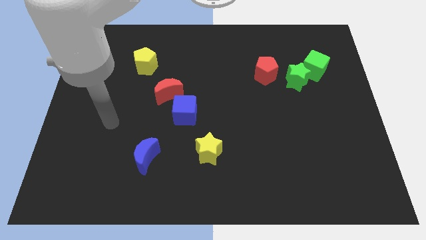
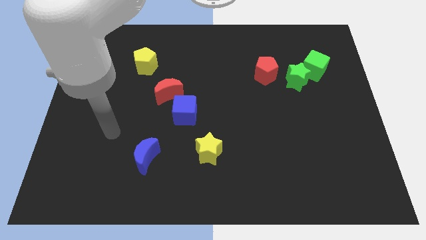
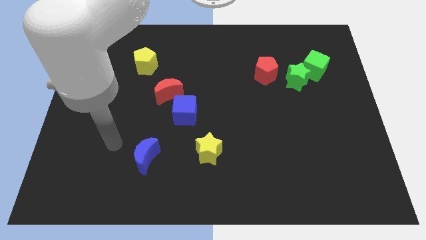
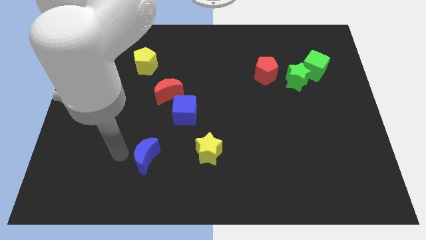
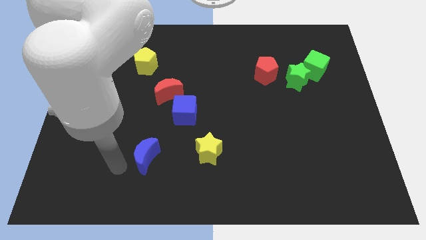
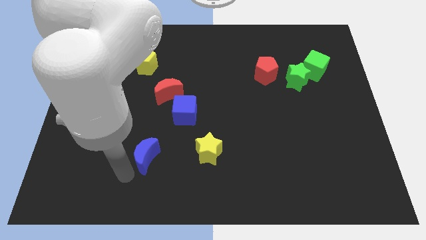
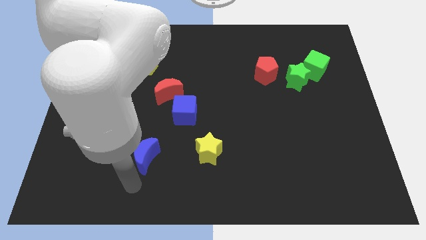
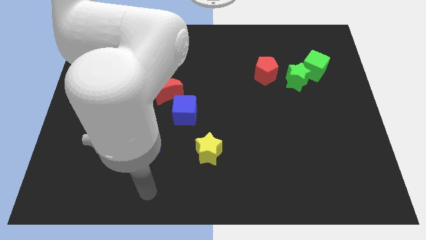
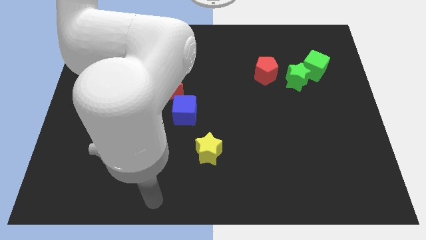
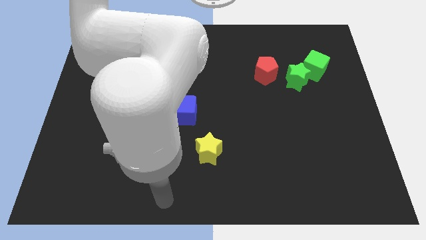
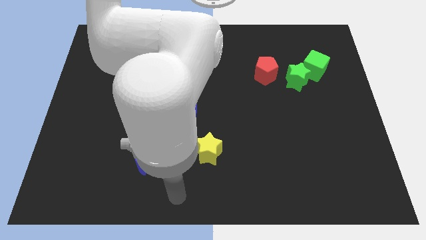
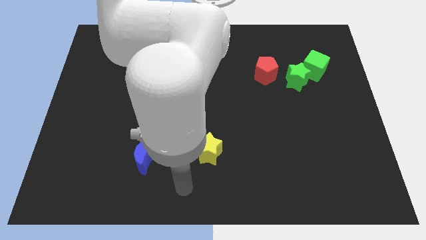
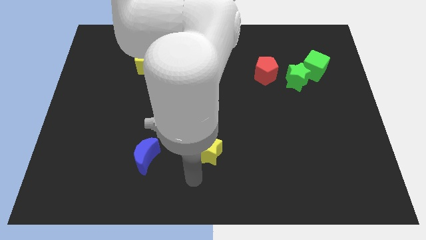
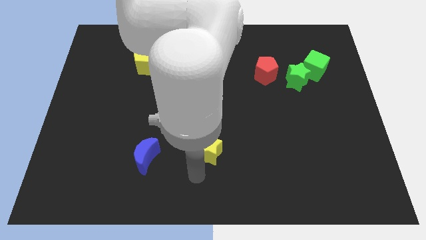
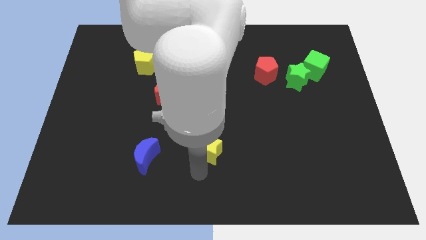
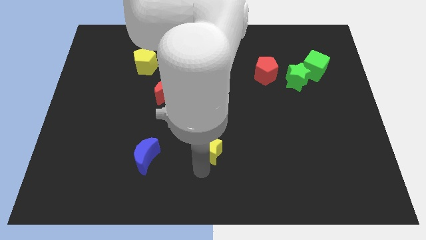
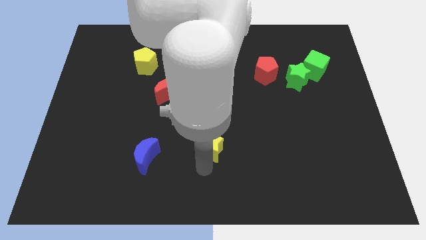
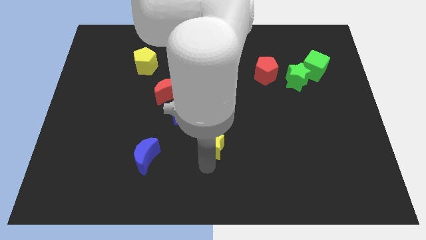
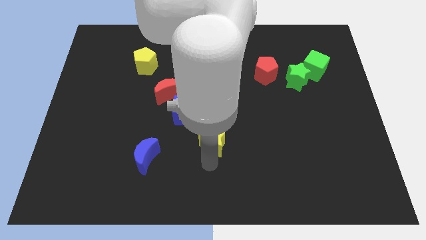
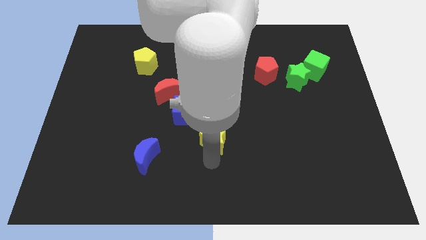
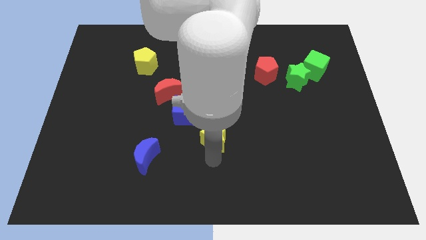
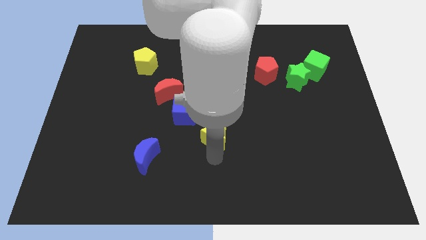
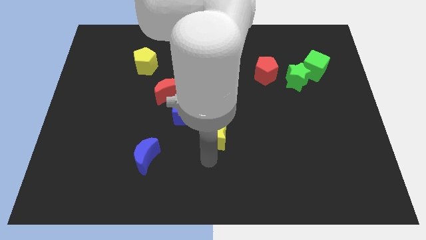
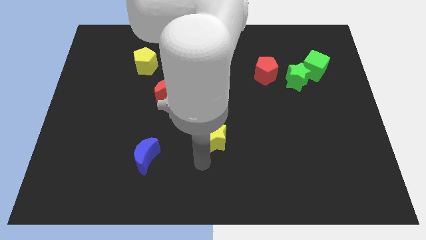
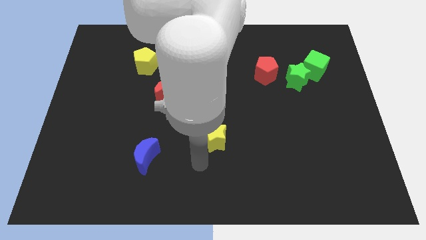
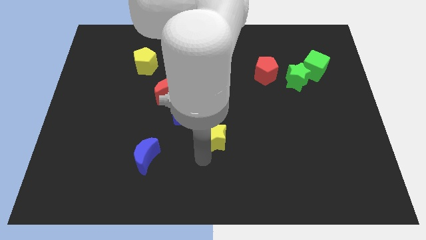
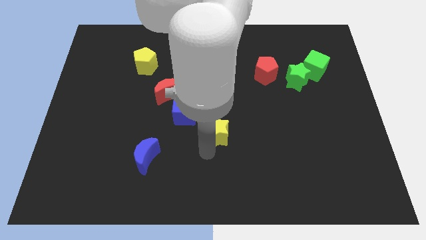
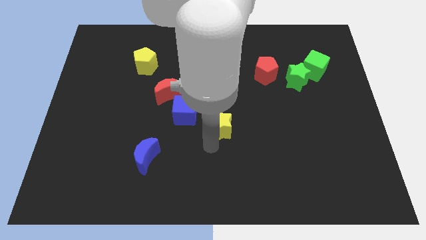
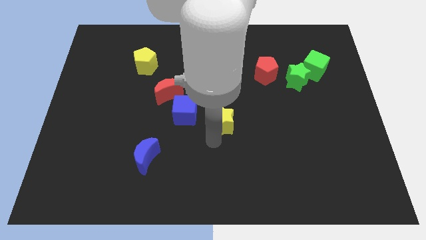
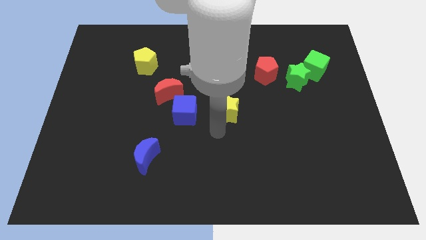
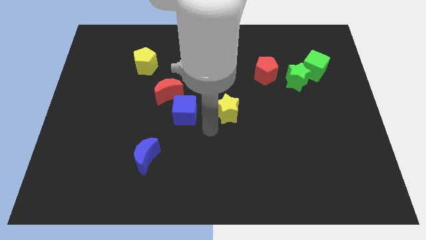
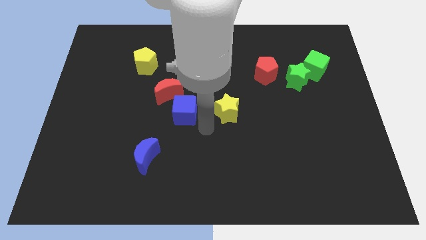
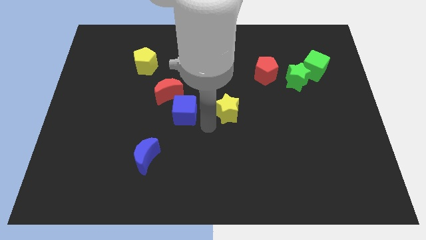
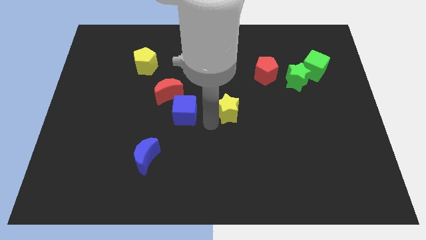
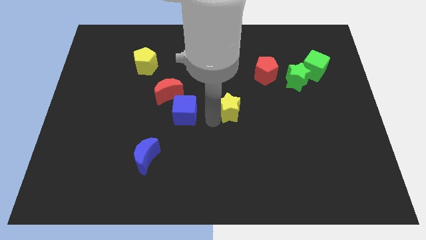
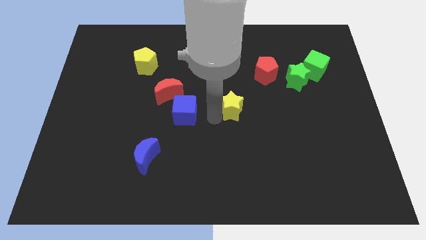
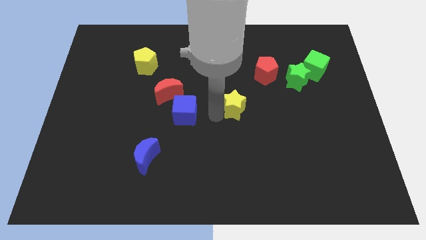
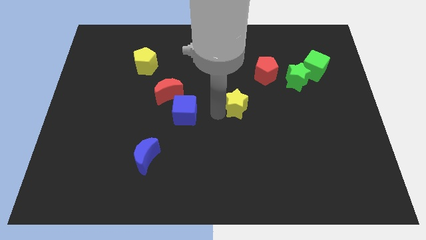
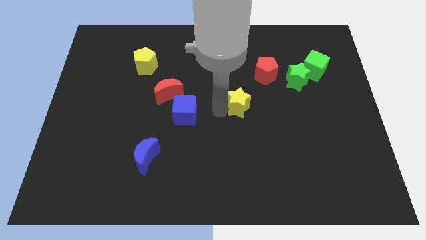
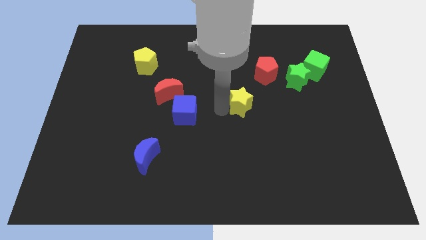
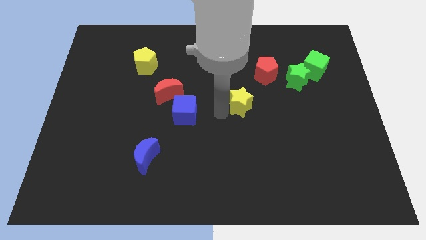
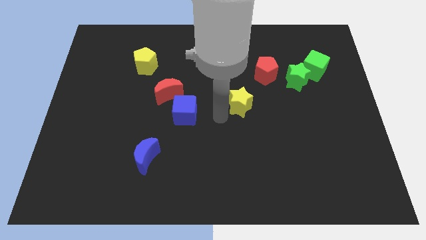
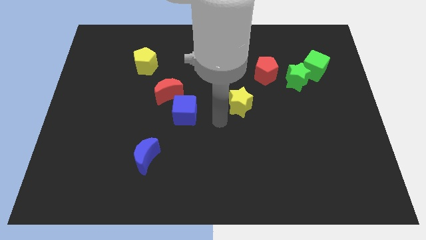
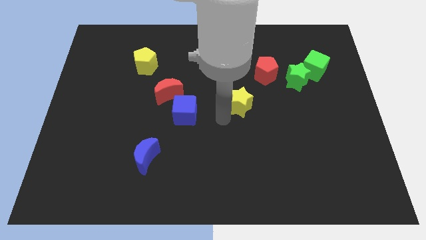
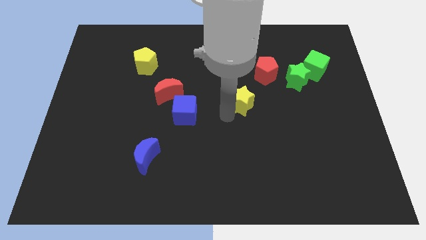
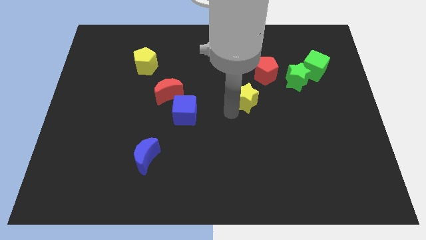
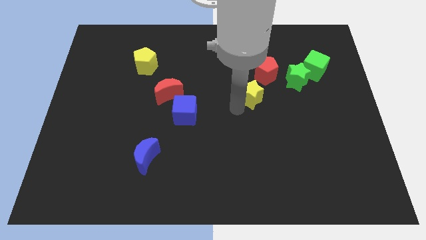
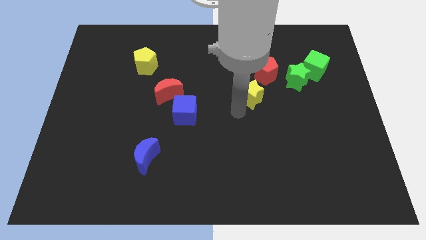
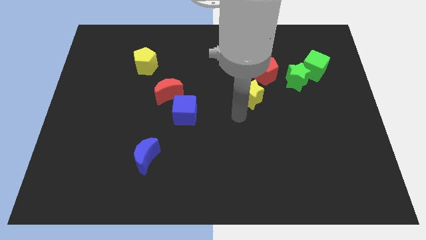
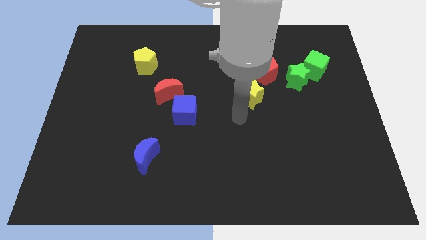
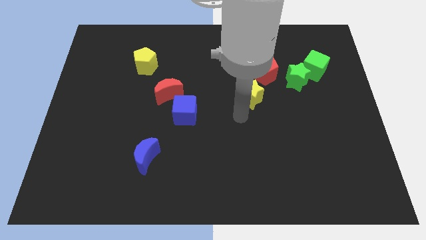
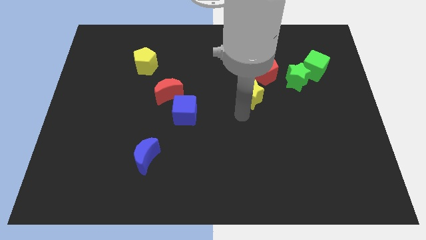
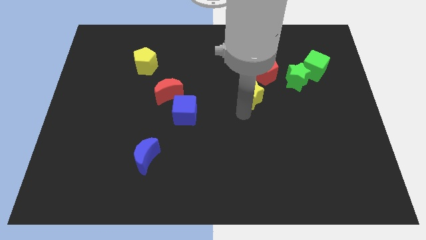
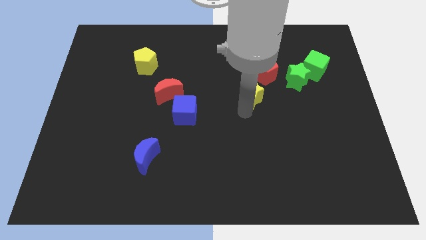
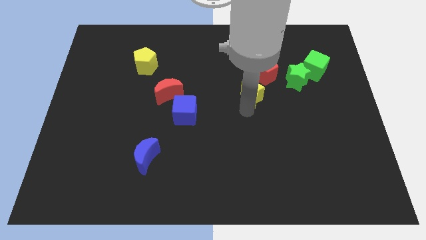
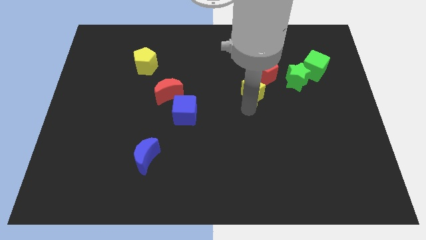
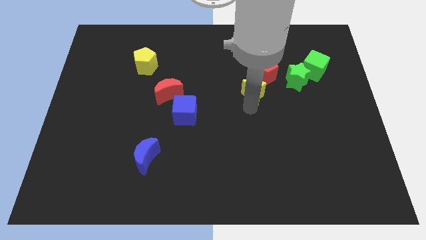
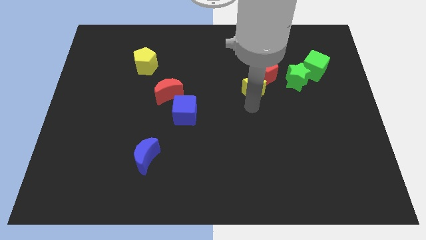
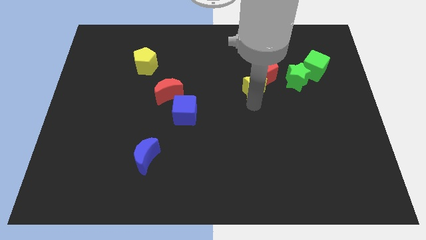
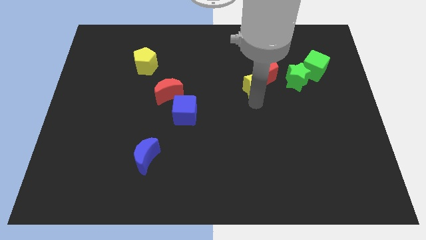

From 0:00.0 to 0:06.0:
push the yellow star towards the red pentagon

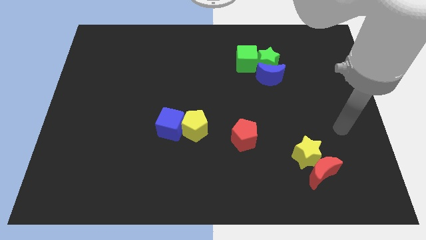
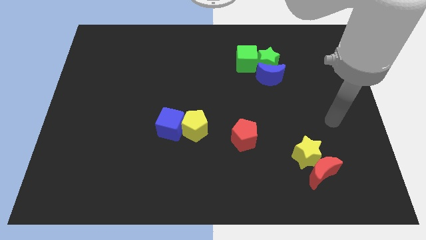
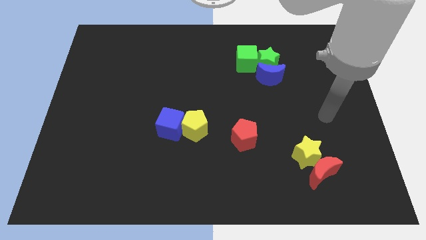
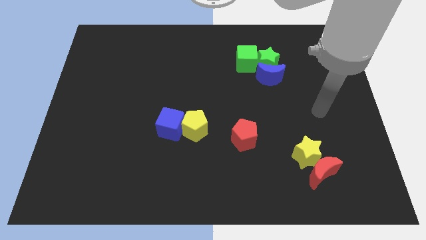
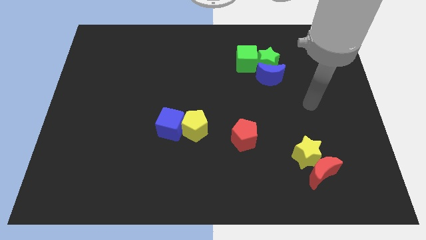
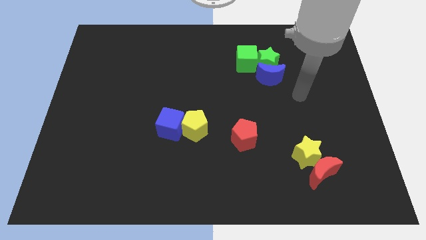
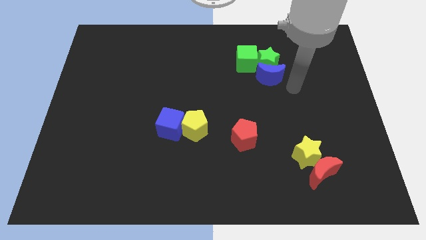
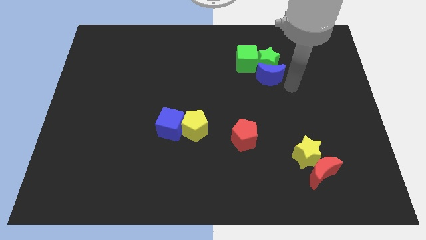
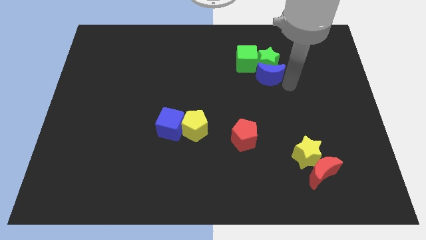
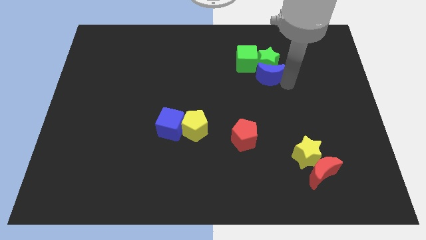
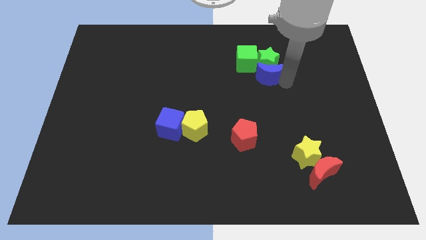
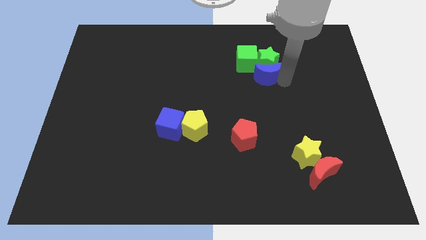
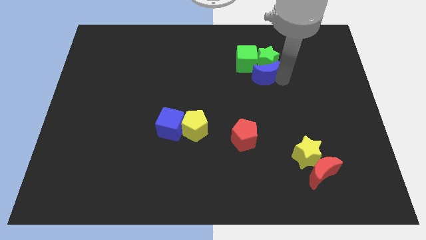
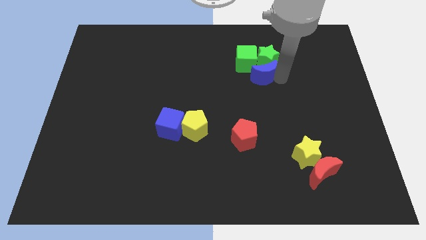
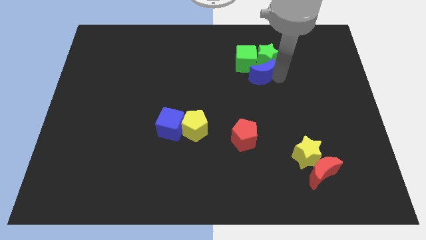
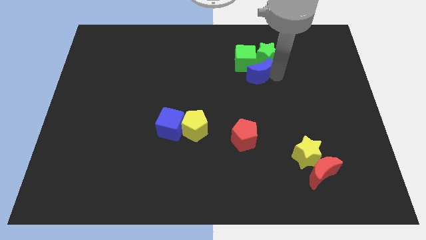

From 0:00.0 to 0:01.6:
push the blue moon close to the green cube

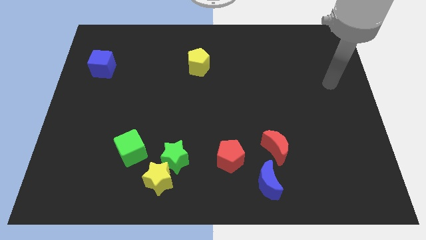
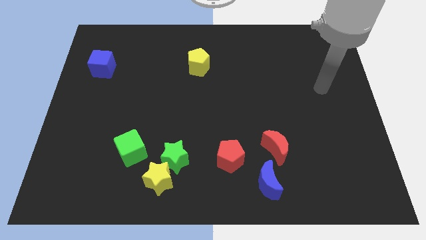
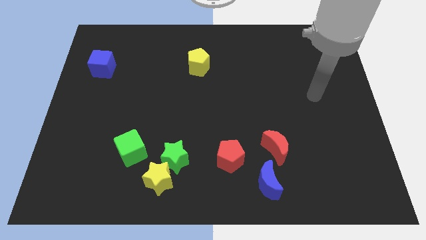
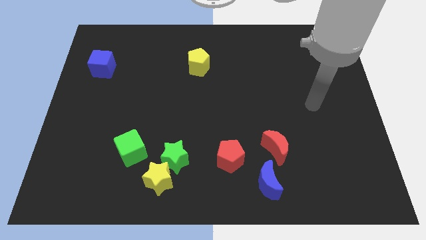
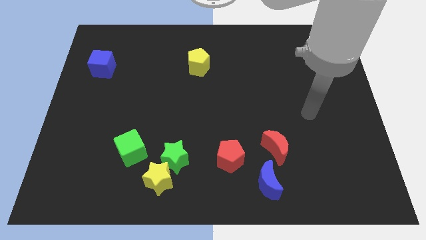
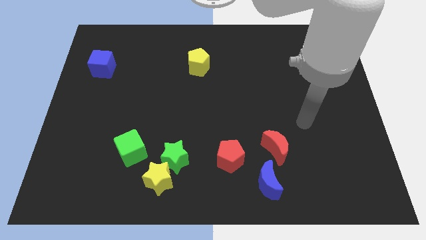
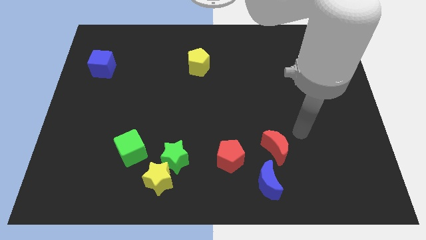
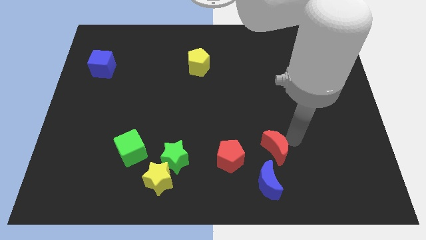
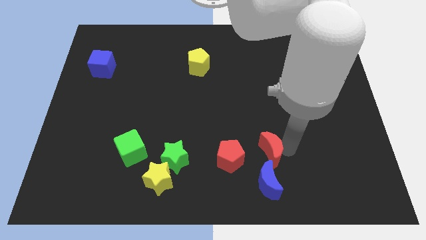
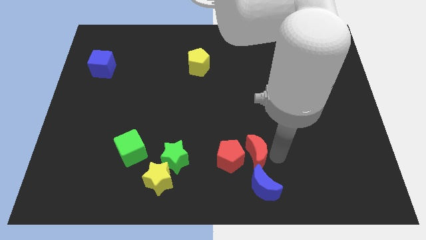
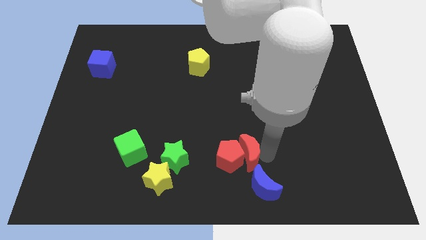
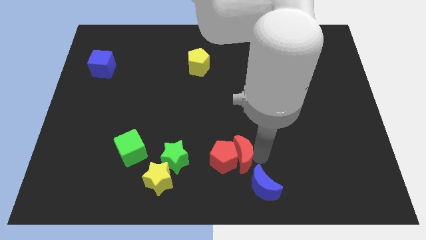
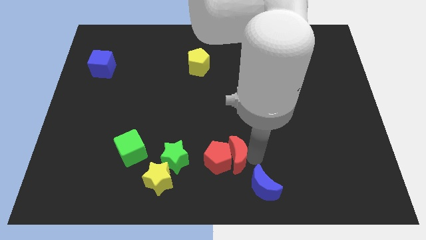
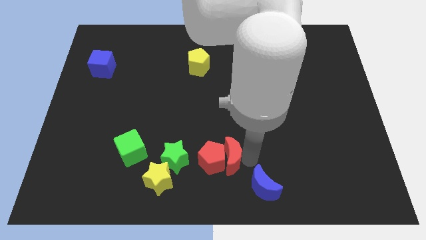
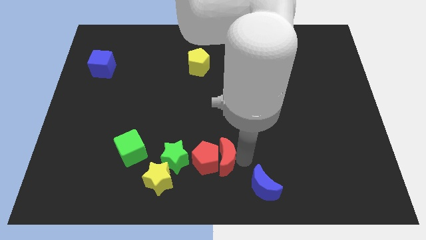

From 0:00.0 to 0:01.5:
put the red pentagon close to the green star
